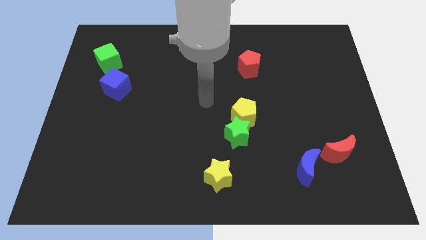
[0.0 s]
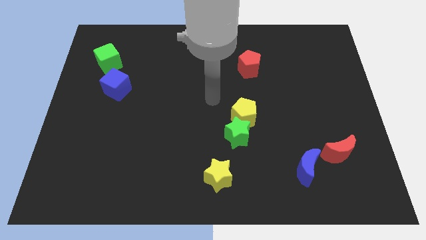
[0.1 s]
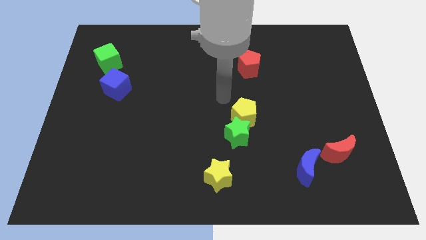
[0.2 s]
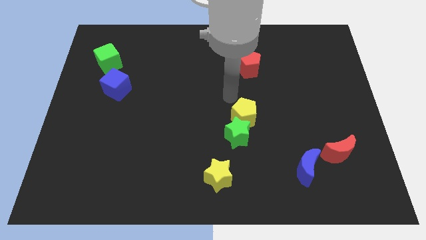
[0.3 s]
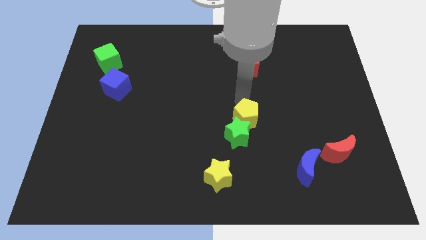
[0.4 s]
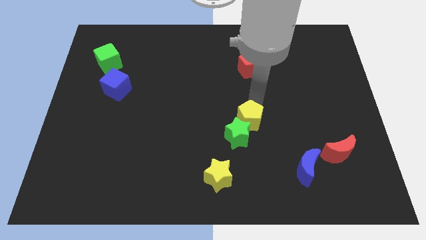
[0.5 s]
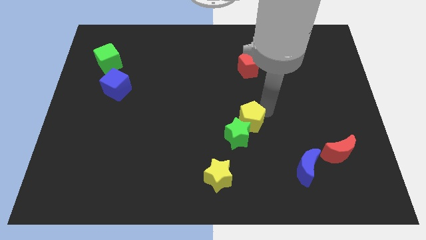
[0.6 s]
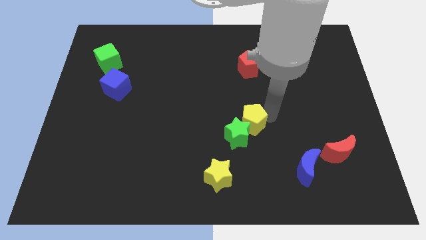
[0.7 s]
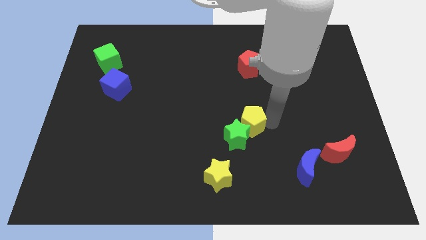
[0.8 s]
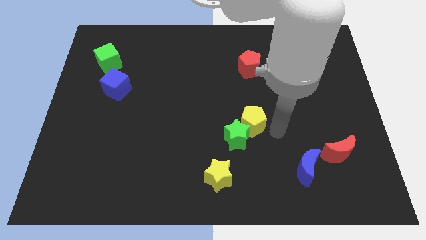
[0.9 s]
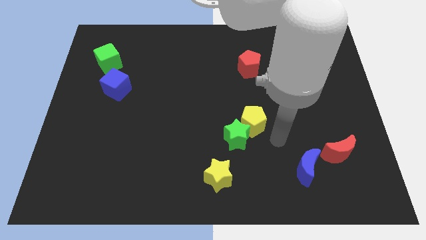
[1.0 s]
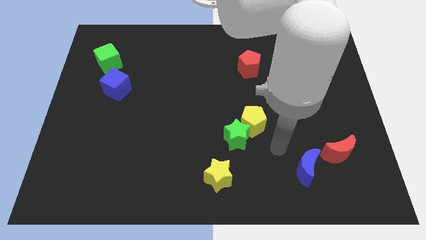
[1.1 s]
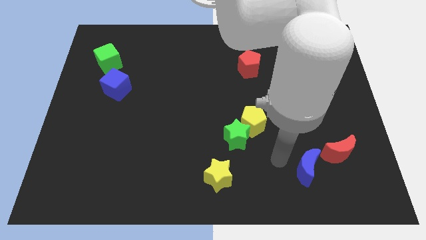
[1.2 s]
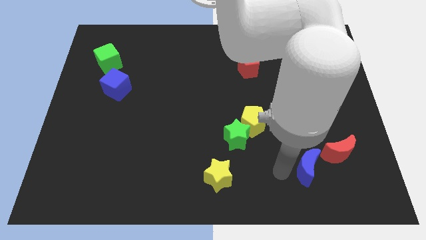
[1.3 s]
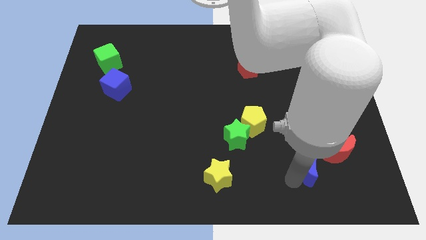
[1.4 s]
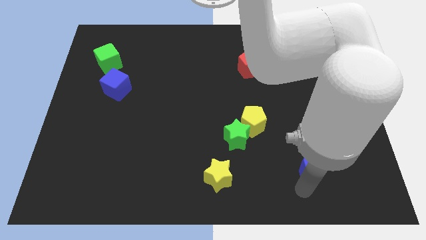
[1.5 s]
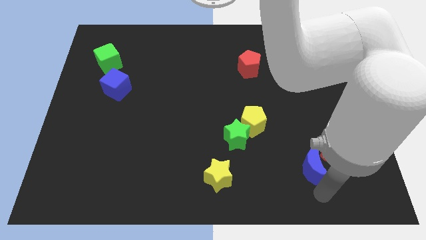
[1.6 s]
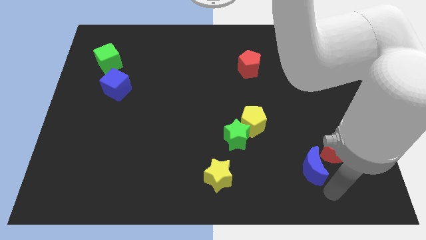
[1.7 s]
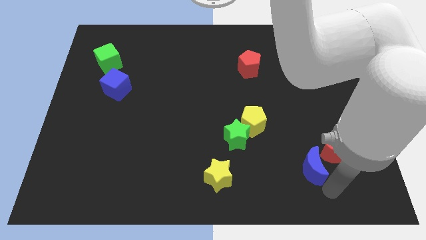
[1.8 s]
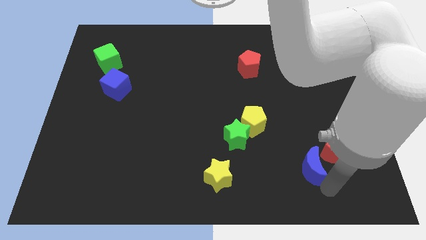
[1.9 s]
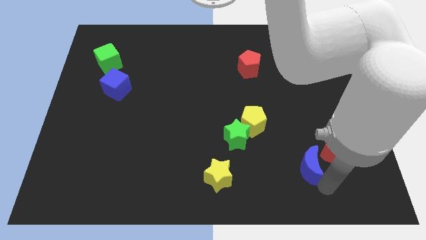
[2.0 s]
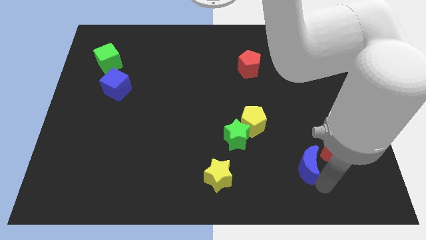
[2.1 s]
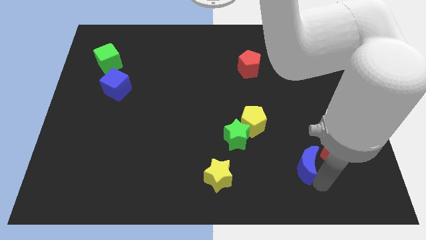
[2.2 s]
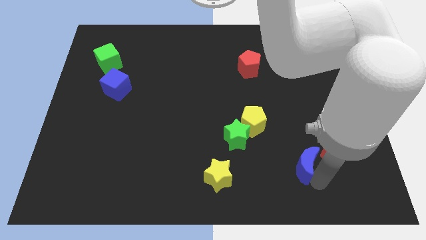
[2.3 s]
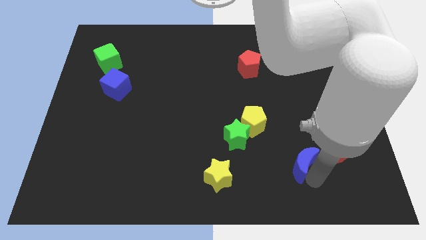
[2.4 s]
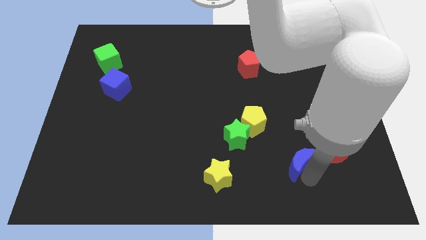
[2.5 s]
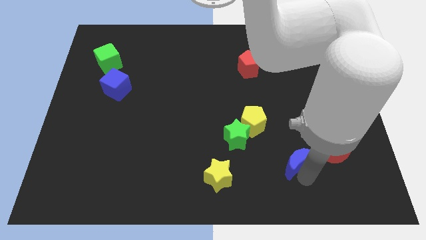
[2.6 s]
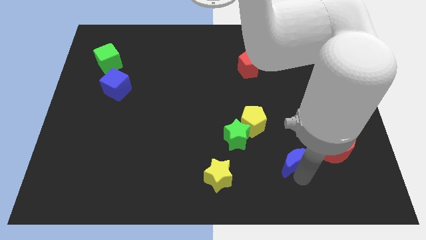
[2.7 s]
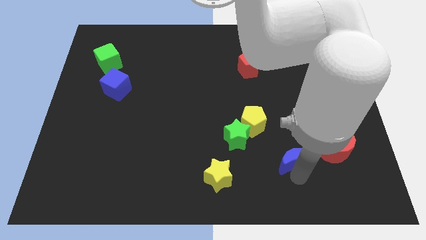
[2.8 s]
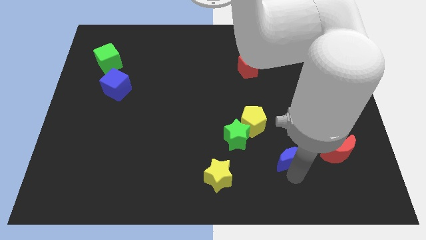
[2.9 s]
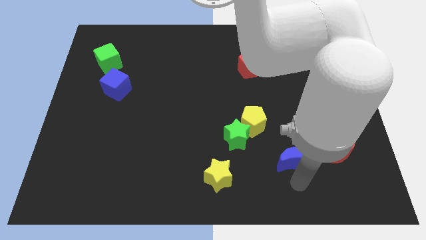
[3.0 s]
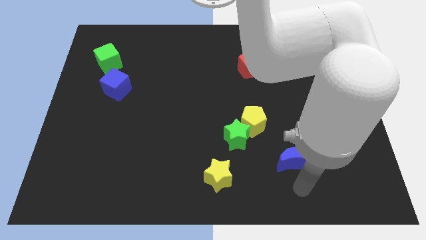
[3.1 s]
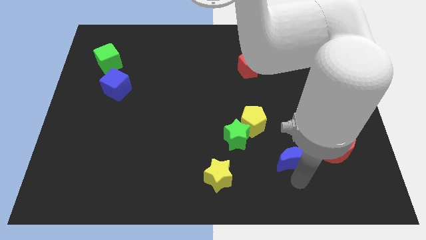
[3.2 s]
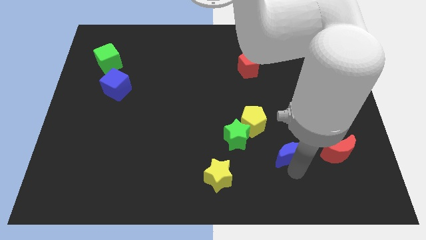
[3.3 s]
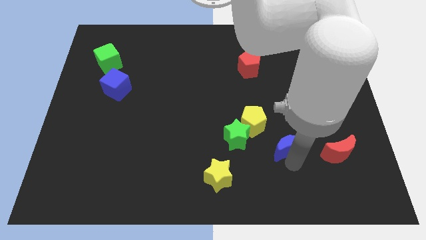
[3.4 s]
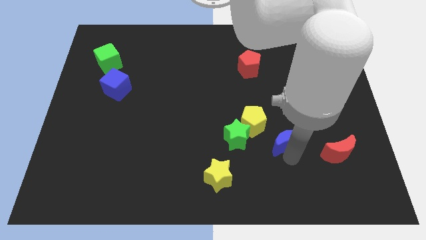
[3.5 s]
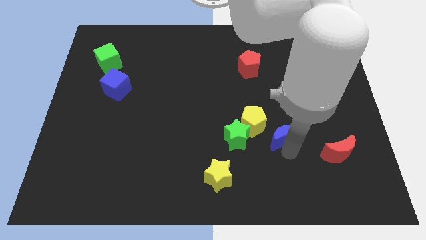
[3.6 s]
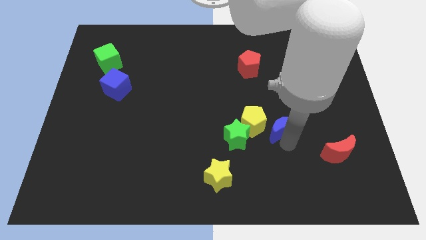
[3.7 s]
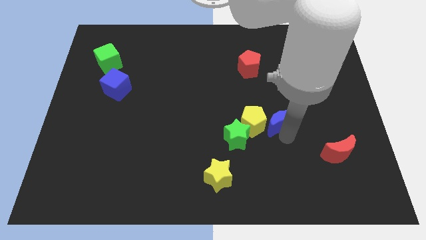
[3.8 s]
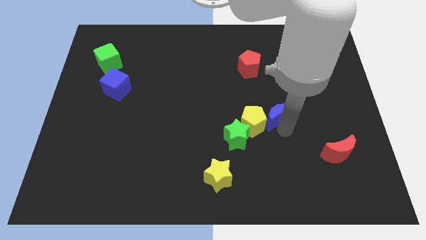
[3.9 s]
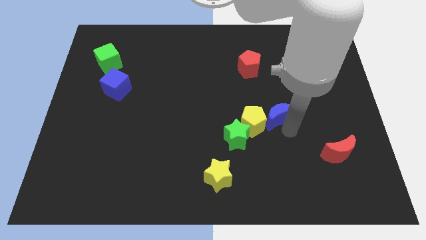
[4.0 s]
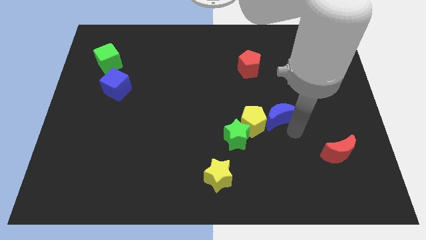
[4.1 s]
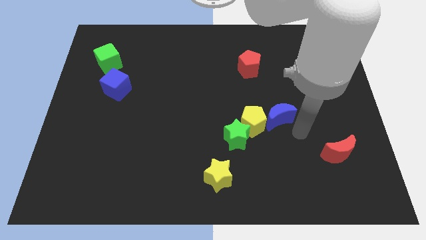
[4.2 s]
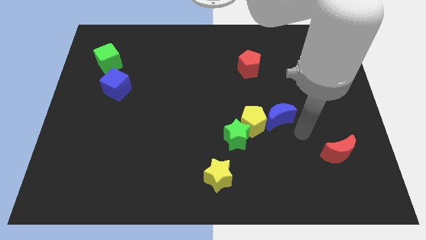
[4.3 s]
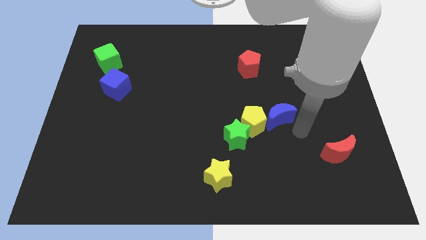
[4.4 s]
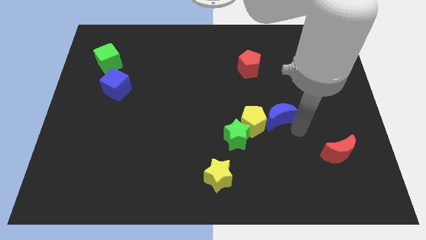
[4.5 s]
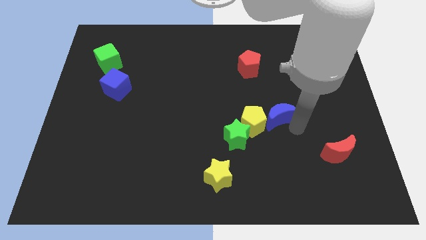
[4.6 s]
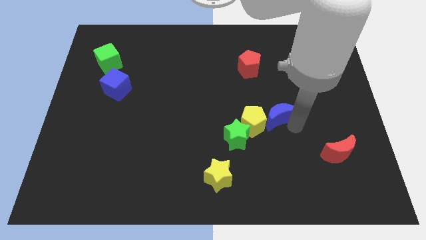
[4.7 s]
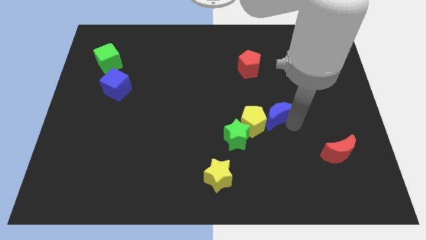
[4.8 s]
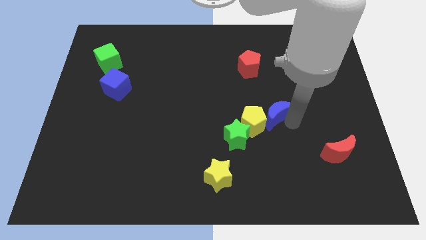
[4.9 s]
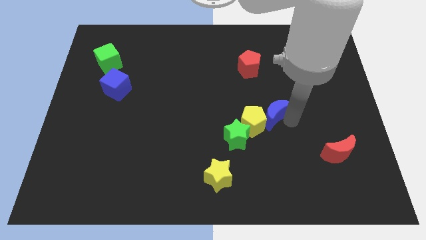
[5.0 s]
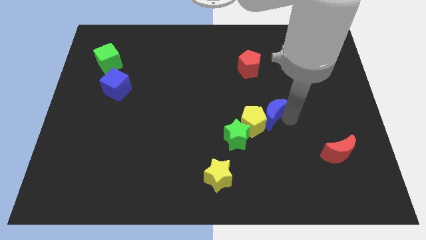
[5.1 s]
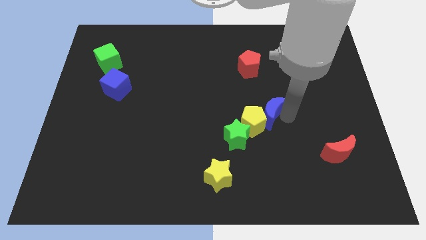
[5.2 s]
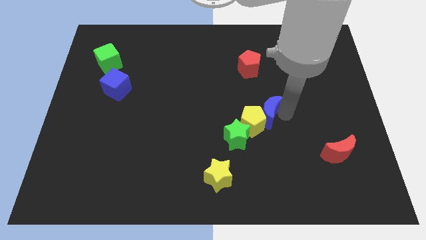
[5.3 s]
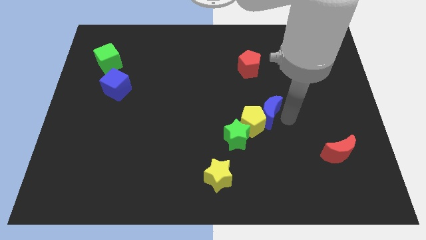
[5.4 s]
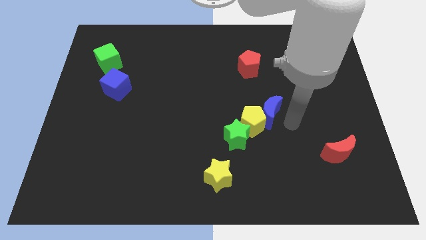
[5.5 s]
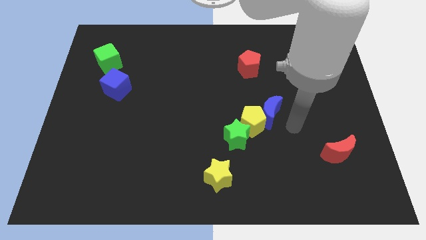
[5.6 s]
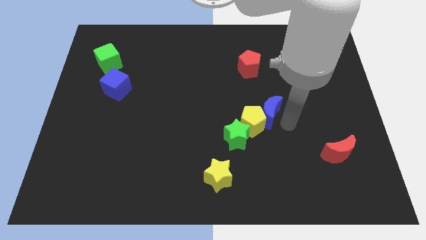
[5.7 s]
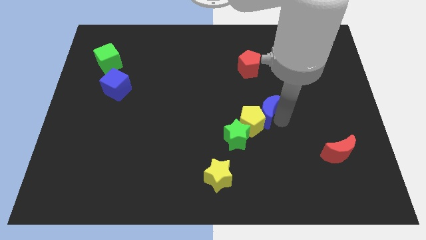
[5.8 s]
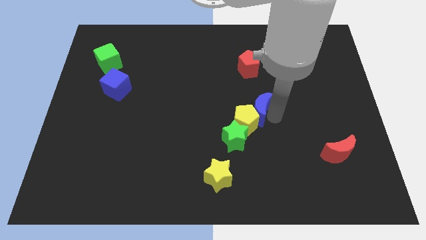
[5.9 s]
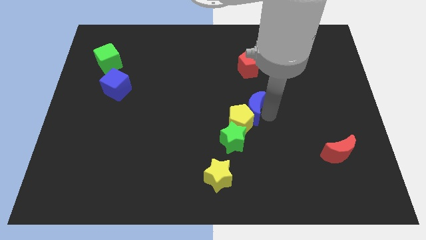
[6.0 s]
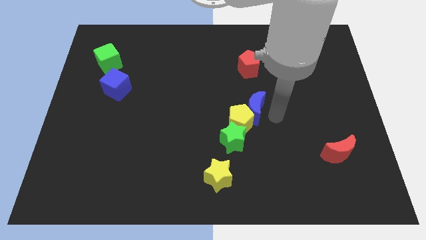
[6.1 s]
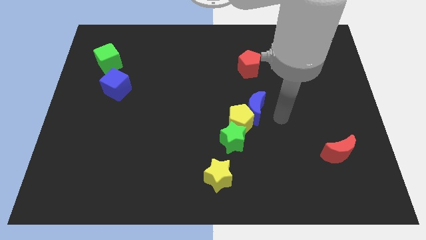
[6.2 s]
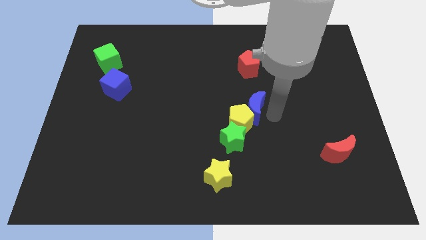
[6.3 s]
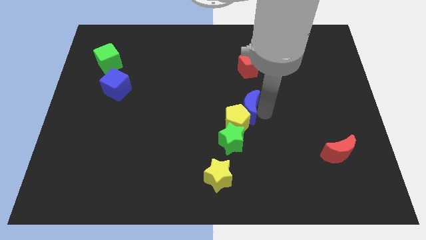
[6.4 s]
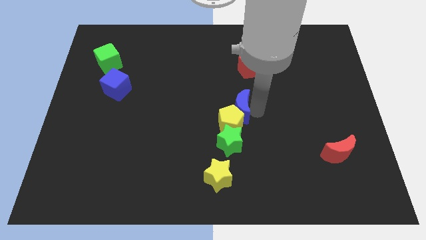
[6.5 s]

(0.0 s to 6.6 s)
slide the blue moon diagonally upwards and left

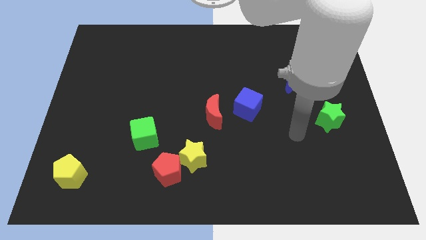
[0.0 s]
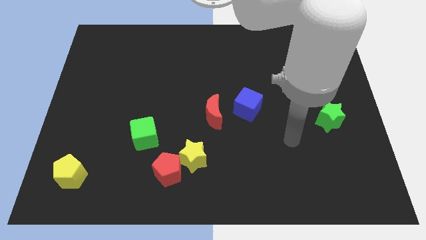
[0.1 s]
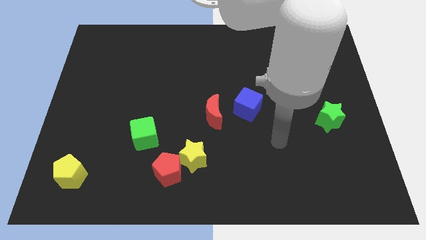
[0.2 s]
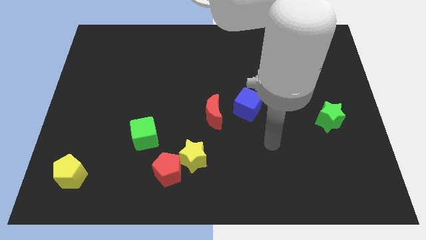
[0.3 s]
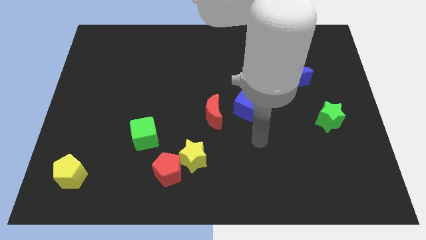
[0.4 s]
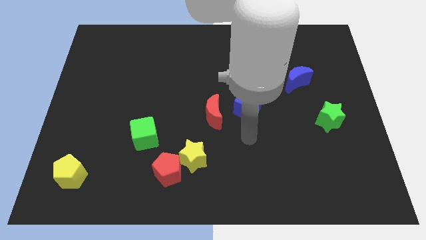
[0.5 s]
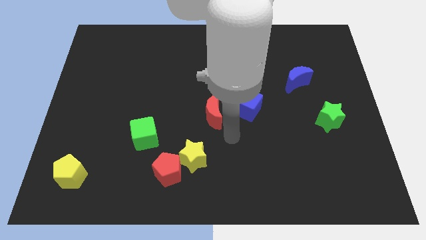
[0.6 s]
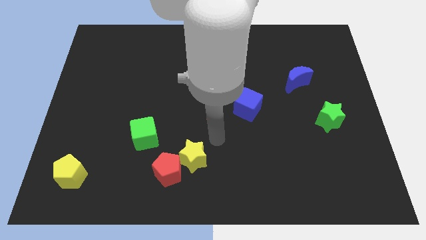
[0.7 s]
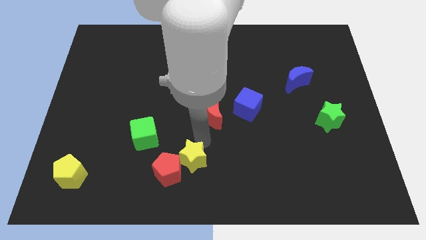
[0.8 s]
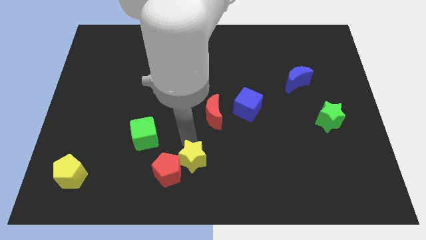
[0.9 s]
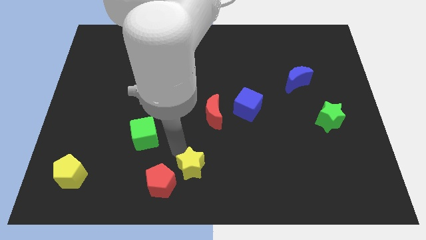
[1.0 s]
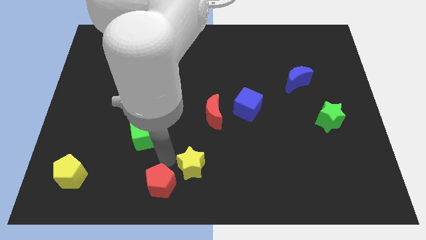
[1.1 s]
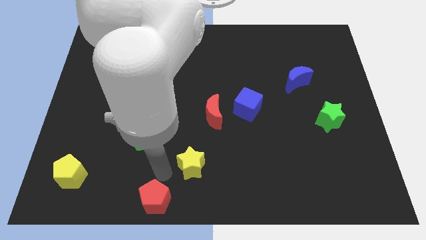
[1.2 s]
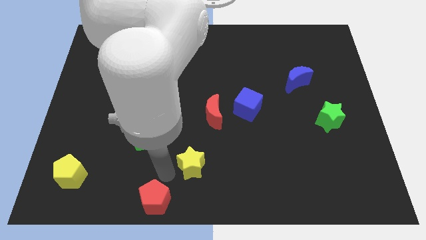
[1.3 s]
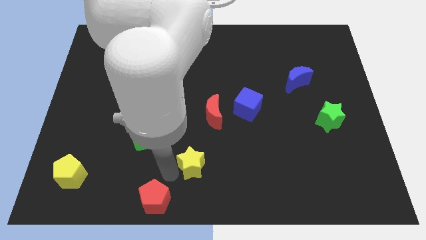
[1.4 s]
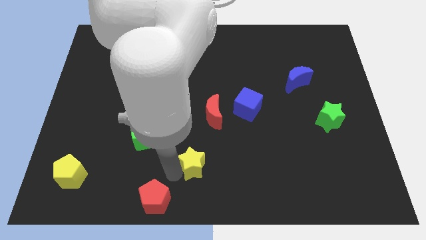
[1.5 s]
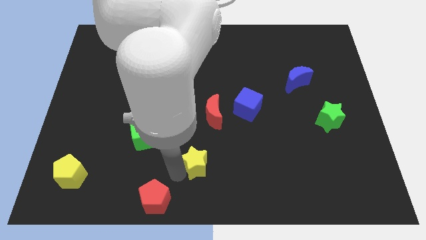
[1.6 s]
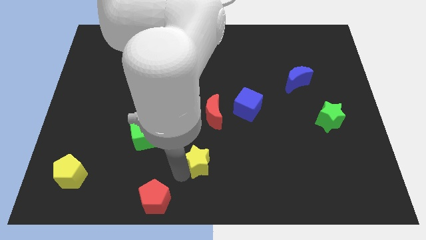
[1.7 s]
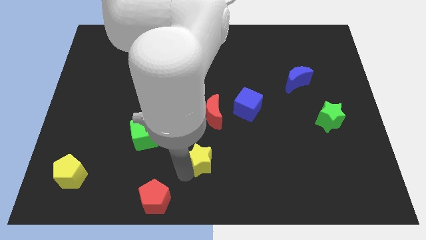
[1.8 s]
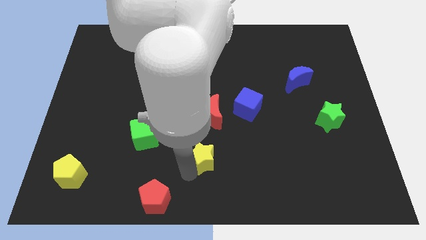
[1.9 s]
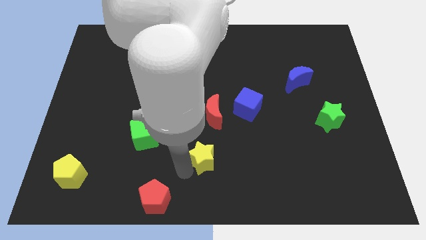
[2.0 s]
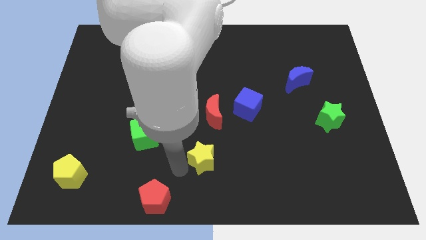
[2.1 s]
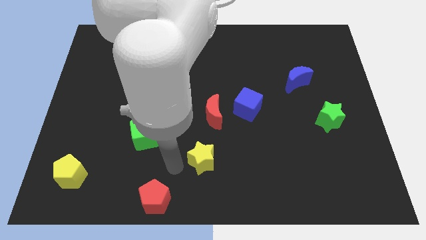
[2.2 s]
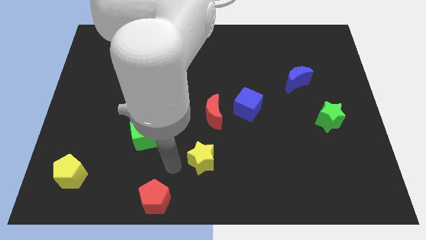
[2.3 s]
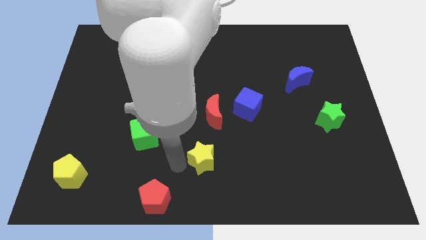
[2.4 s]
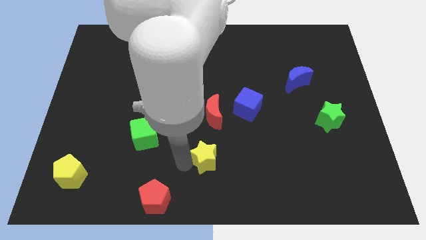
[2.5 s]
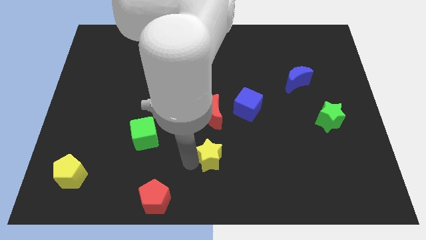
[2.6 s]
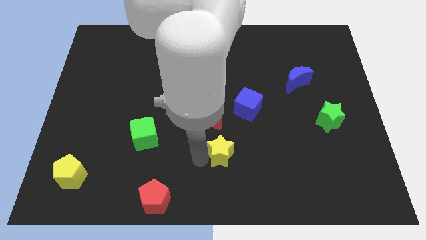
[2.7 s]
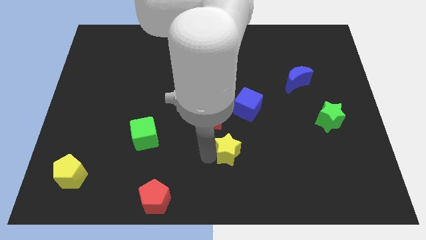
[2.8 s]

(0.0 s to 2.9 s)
slide the yellow star to the right slightly
